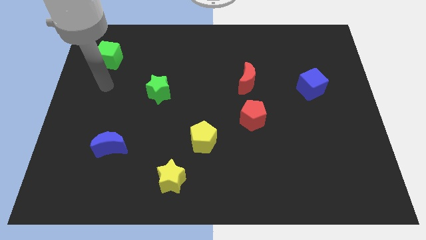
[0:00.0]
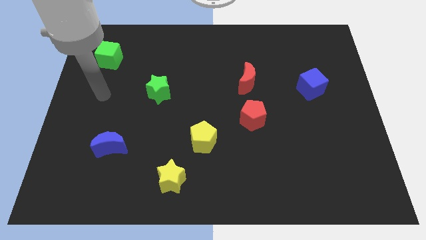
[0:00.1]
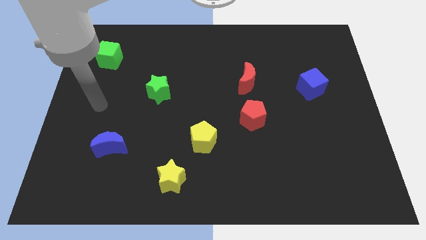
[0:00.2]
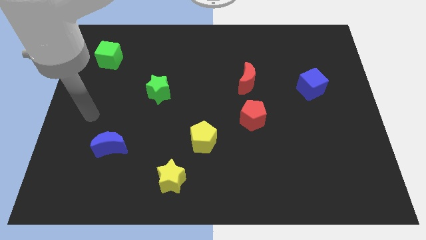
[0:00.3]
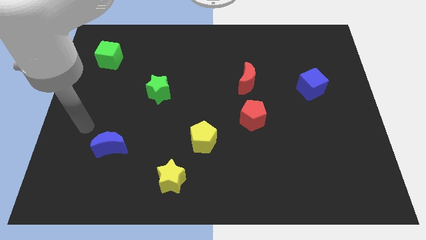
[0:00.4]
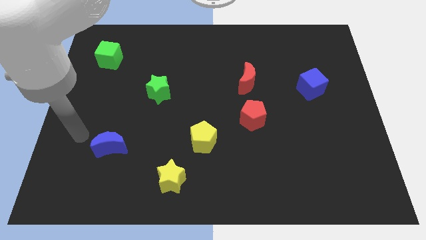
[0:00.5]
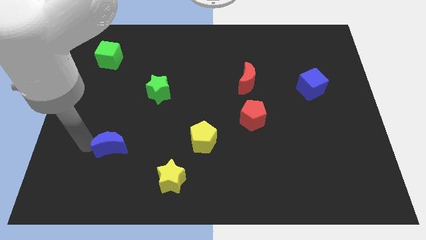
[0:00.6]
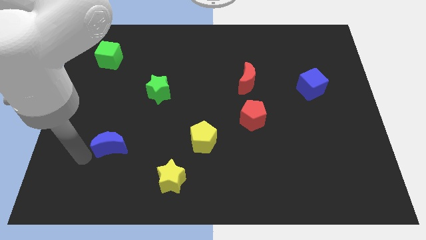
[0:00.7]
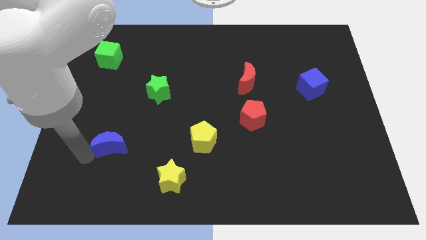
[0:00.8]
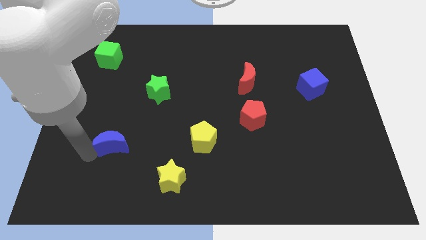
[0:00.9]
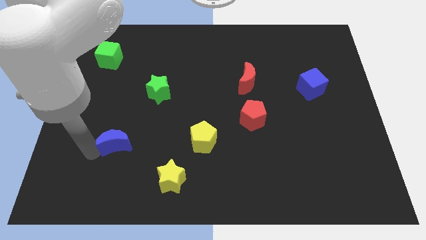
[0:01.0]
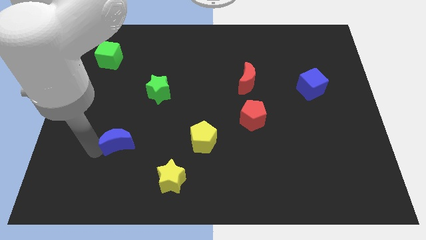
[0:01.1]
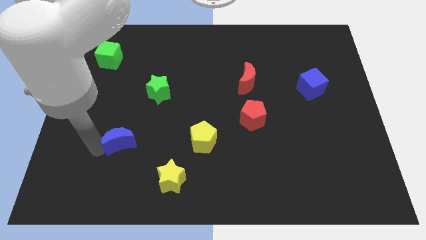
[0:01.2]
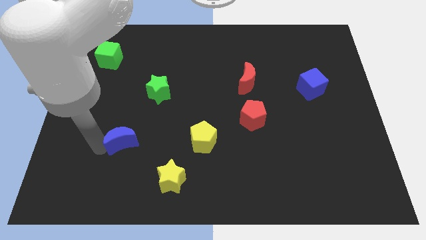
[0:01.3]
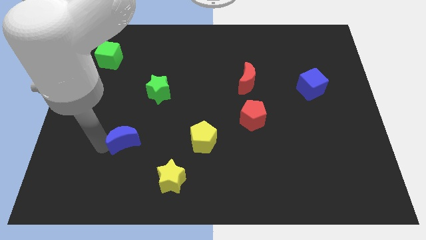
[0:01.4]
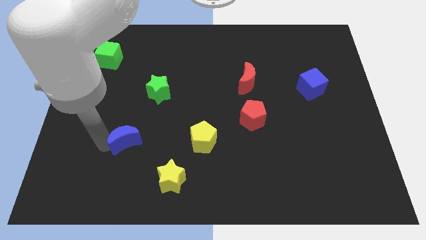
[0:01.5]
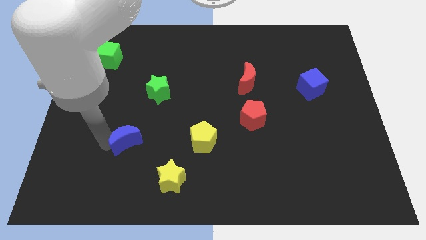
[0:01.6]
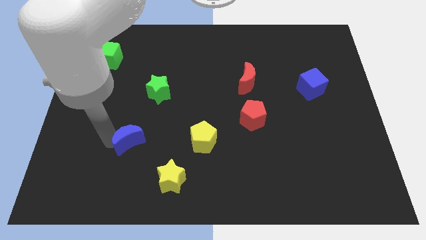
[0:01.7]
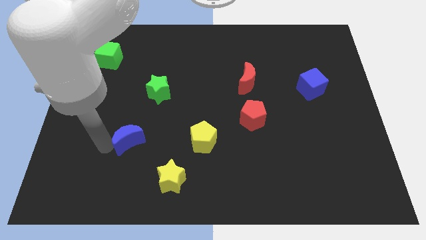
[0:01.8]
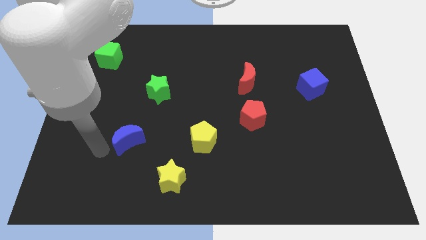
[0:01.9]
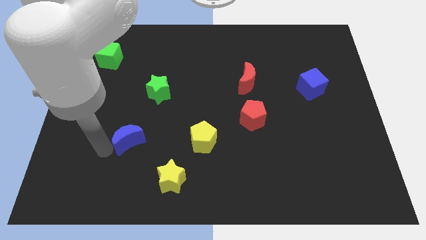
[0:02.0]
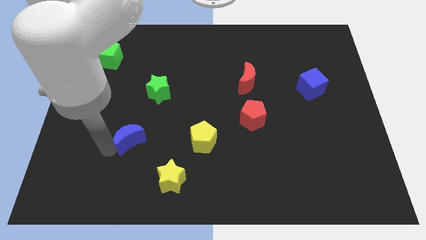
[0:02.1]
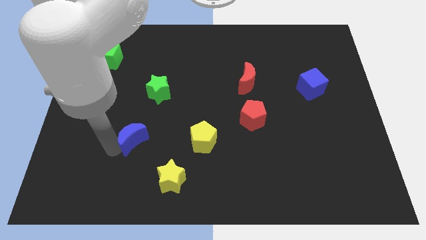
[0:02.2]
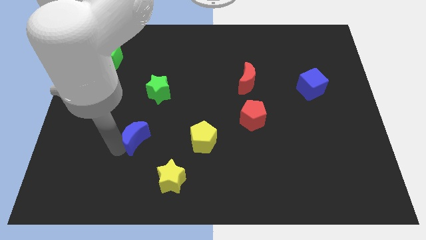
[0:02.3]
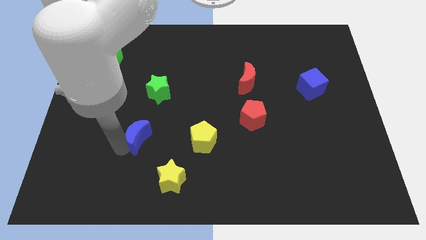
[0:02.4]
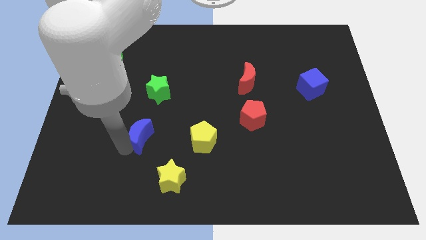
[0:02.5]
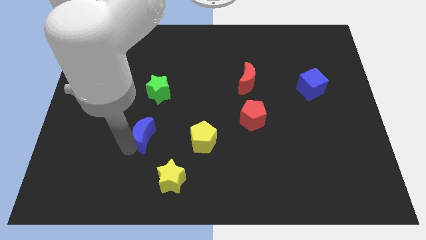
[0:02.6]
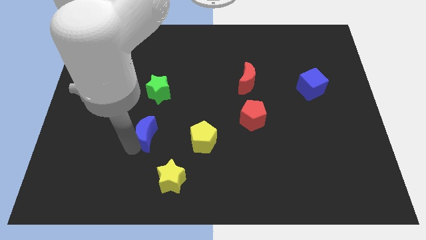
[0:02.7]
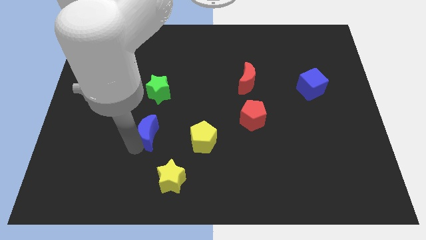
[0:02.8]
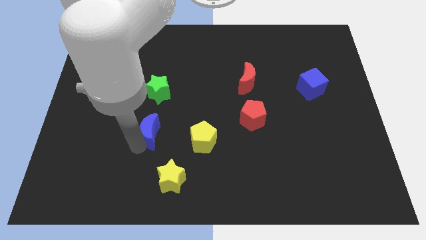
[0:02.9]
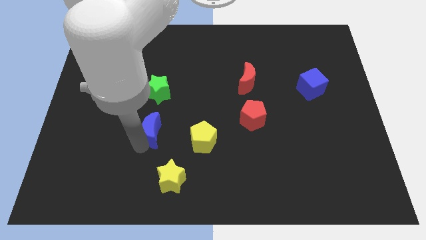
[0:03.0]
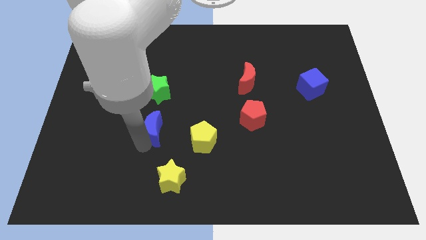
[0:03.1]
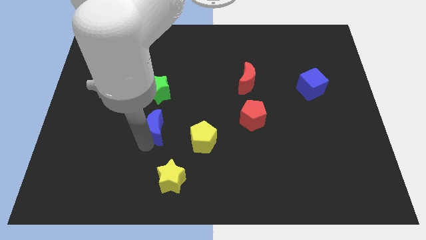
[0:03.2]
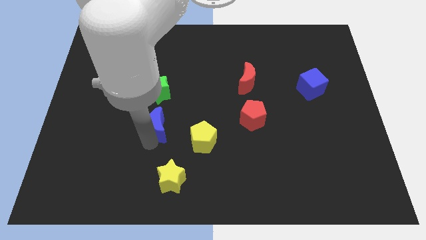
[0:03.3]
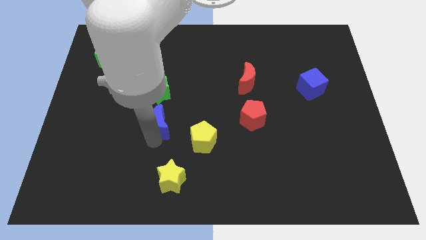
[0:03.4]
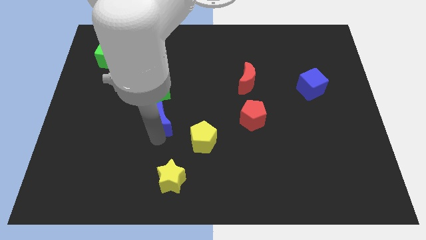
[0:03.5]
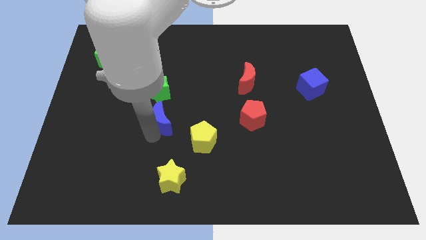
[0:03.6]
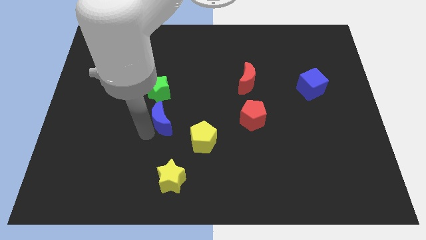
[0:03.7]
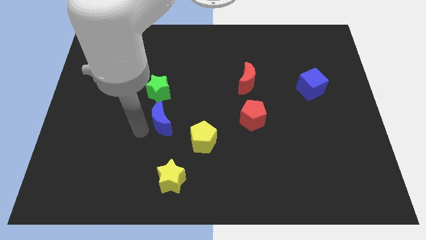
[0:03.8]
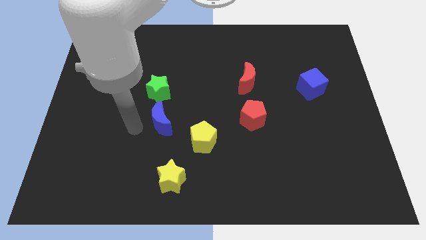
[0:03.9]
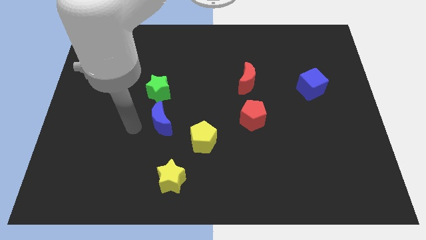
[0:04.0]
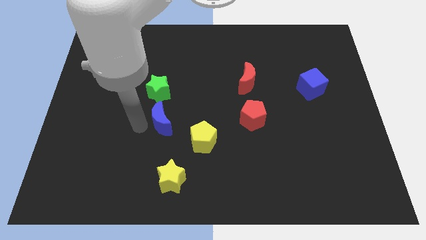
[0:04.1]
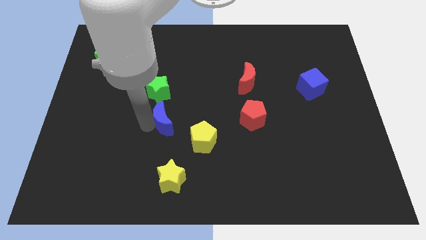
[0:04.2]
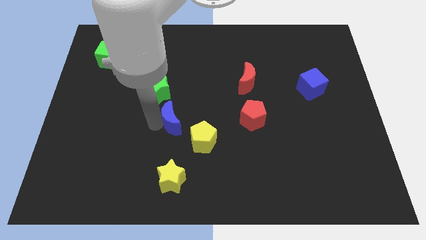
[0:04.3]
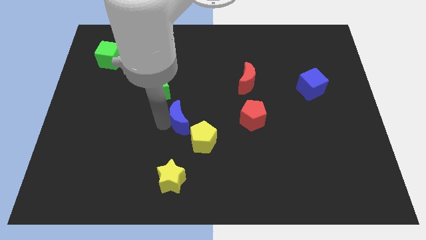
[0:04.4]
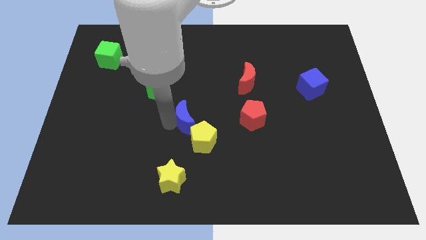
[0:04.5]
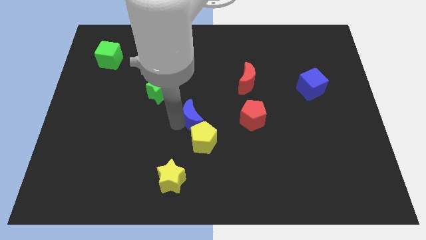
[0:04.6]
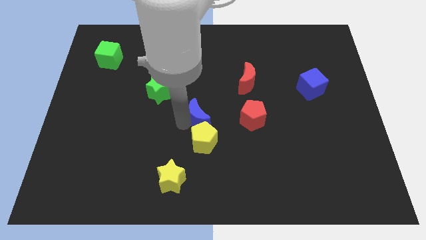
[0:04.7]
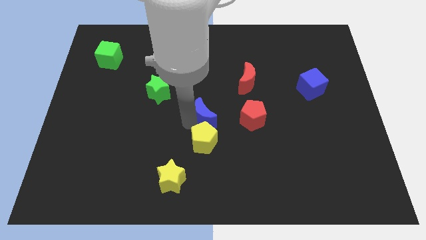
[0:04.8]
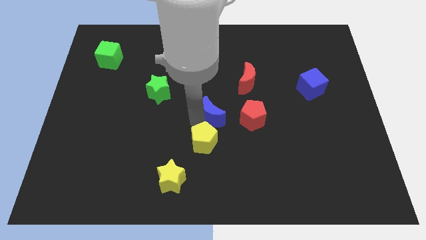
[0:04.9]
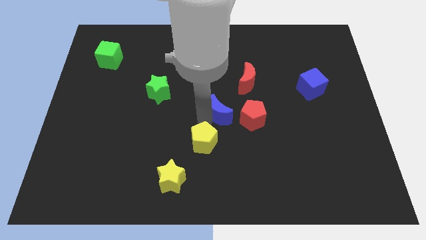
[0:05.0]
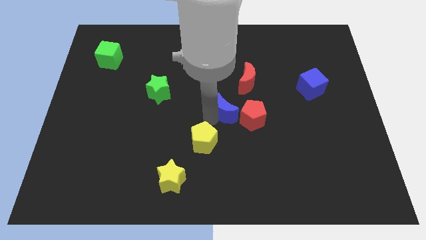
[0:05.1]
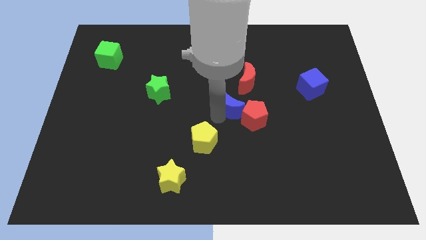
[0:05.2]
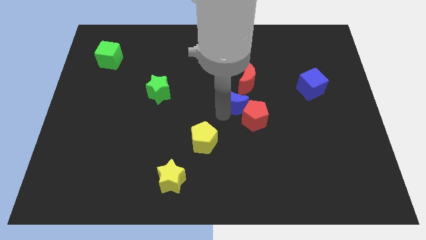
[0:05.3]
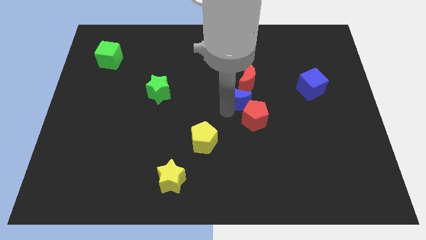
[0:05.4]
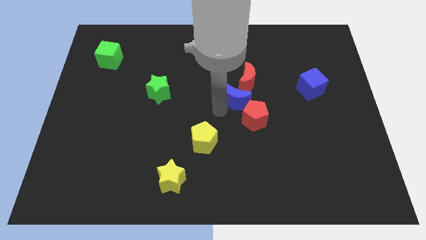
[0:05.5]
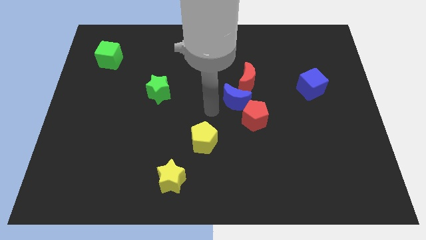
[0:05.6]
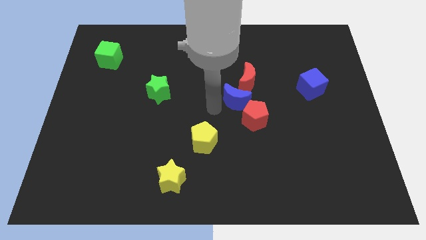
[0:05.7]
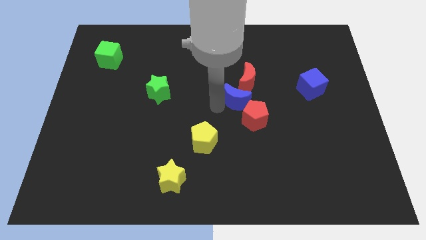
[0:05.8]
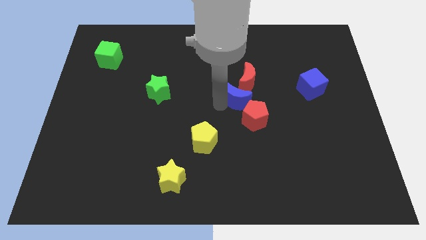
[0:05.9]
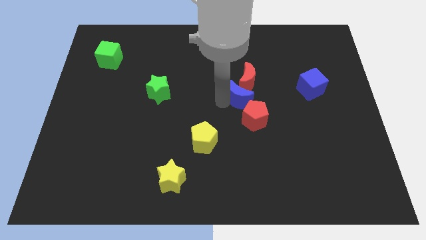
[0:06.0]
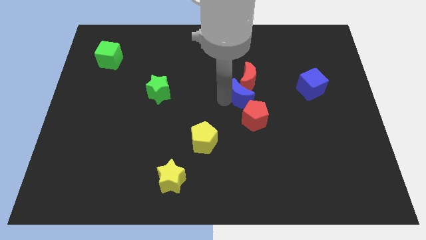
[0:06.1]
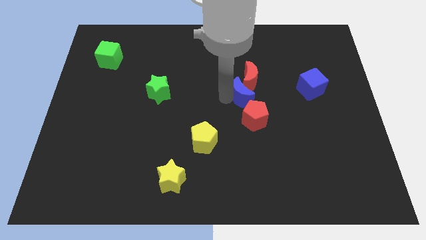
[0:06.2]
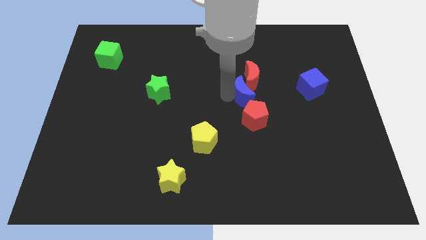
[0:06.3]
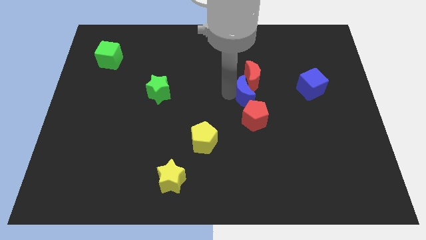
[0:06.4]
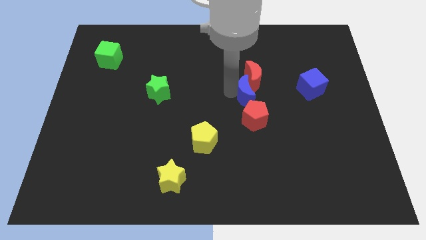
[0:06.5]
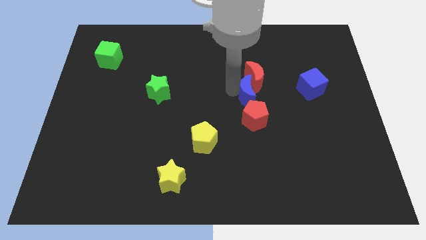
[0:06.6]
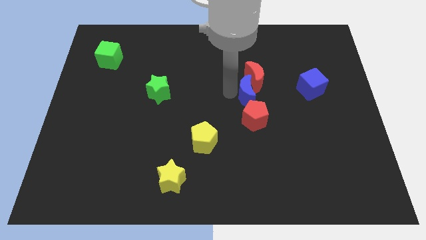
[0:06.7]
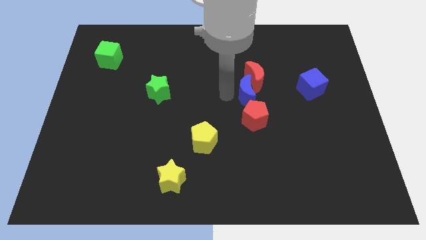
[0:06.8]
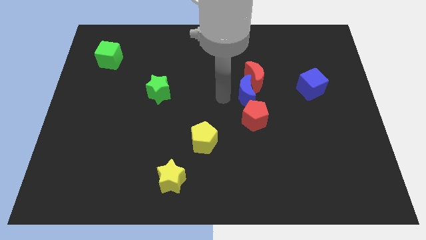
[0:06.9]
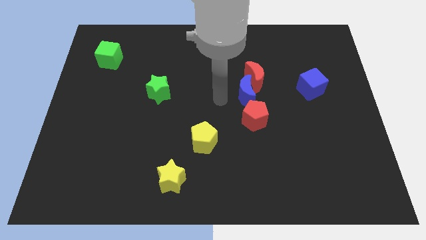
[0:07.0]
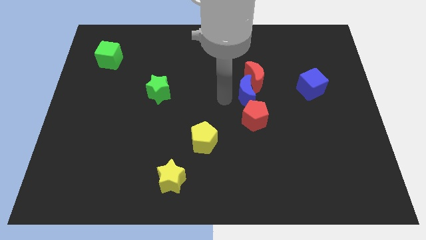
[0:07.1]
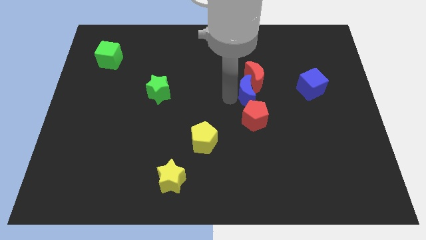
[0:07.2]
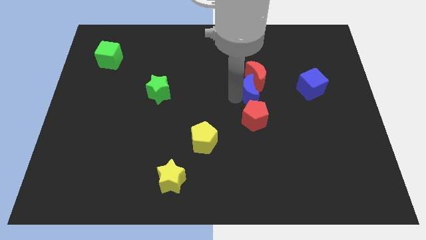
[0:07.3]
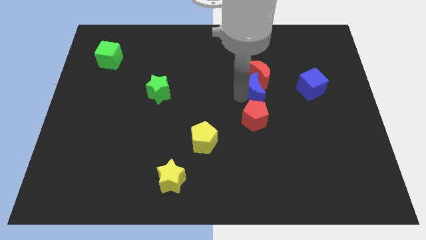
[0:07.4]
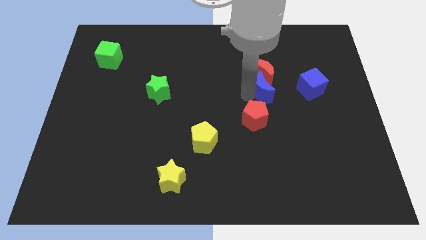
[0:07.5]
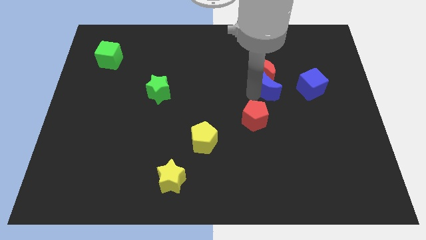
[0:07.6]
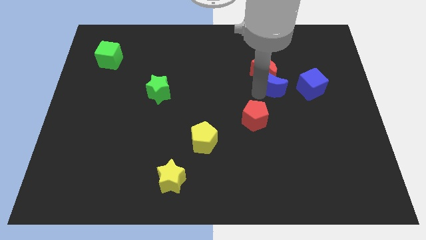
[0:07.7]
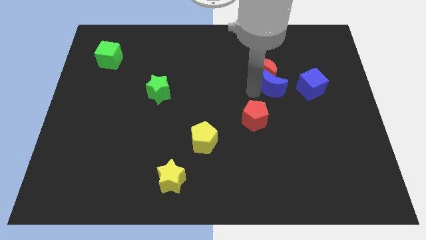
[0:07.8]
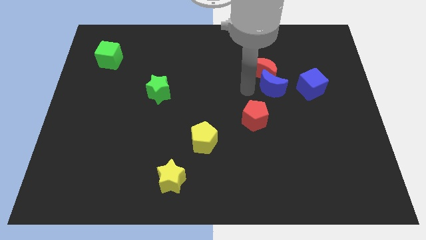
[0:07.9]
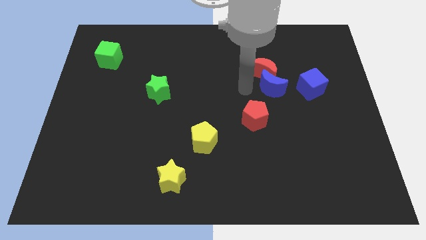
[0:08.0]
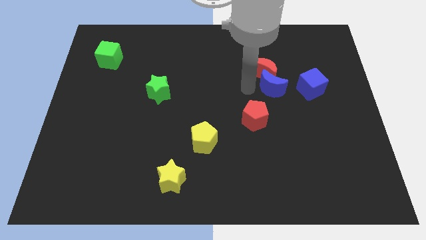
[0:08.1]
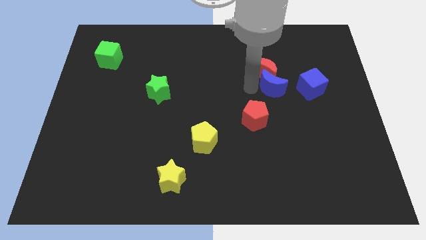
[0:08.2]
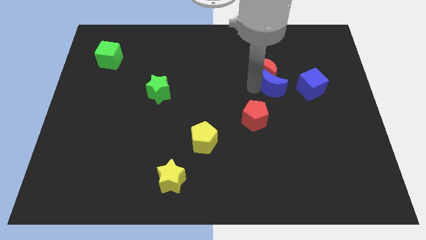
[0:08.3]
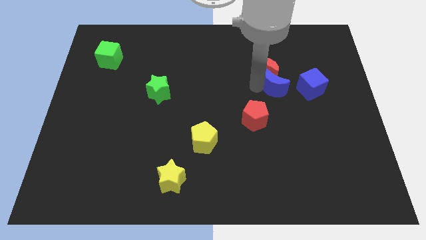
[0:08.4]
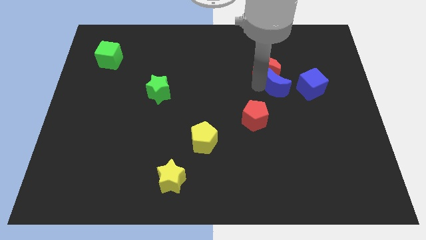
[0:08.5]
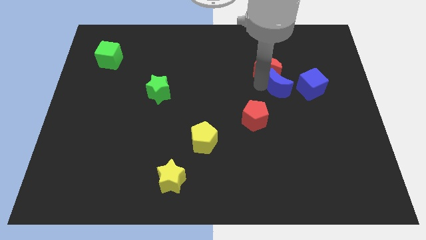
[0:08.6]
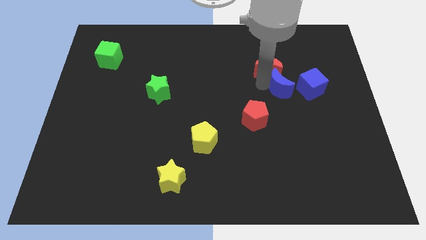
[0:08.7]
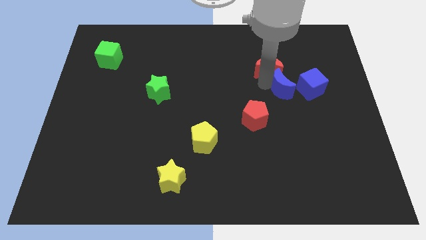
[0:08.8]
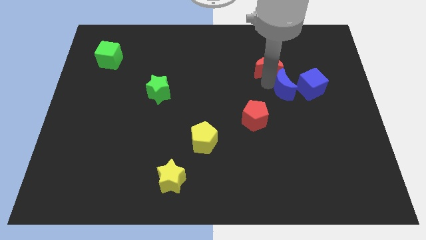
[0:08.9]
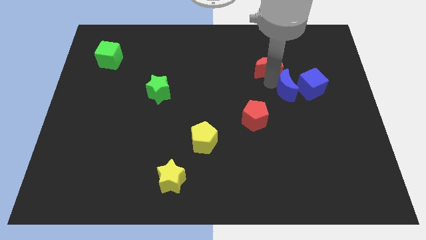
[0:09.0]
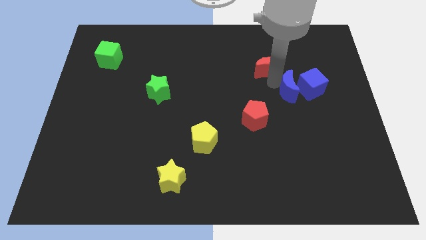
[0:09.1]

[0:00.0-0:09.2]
push the blue moon to the blue cube
